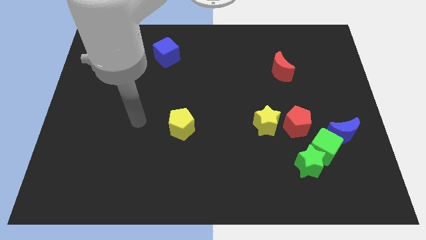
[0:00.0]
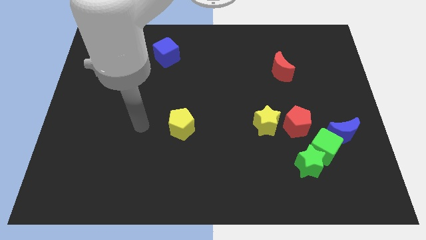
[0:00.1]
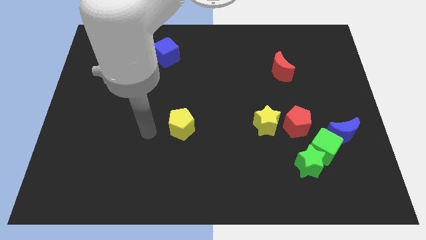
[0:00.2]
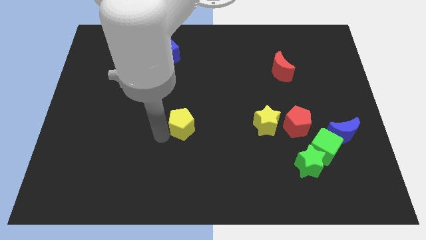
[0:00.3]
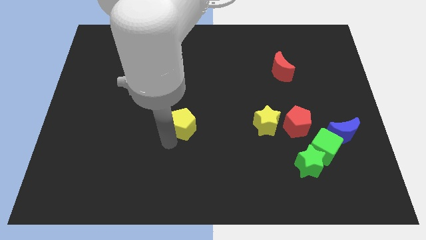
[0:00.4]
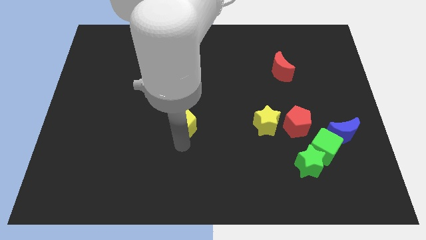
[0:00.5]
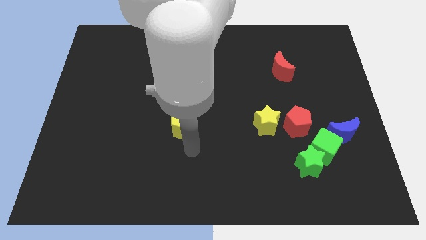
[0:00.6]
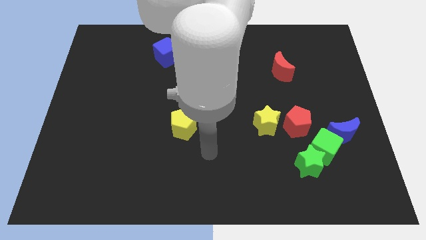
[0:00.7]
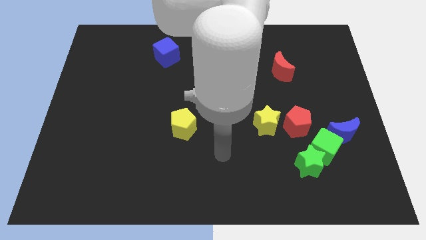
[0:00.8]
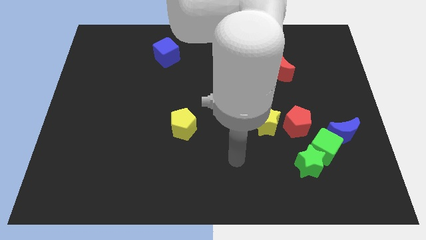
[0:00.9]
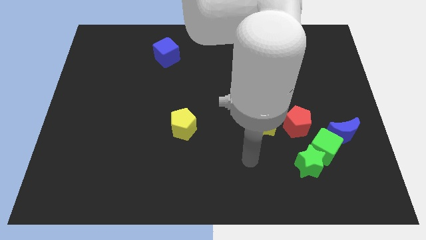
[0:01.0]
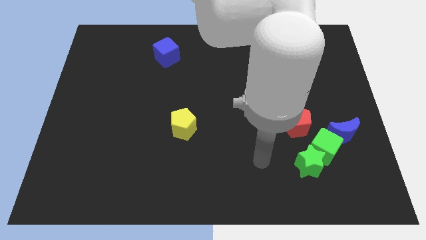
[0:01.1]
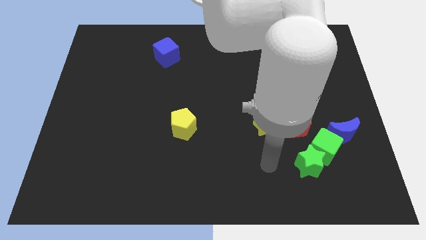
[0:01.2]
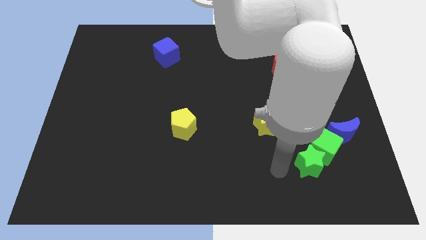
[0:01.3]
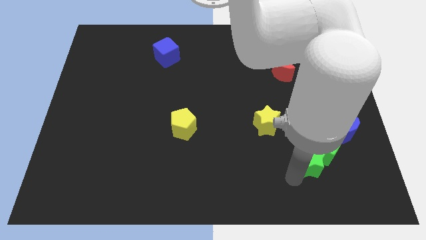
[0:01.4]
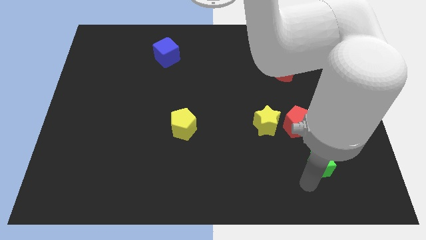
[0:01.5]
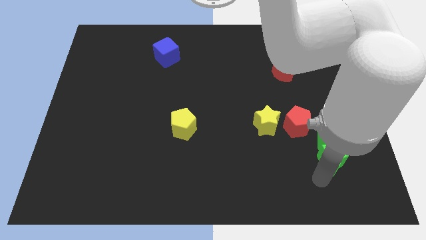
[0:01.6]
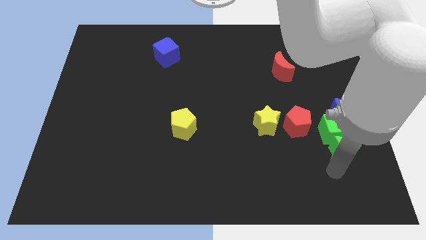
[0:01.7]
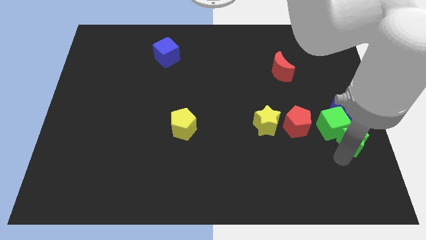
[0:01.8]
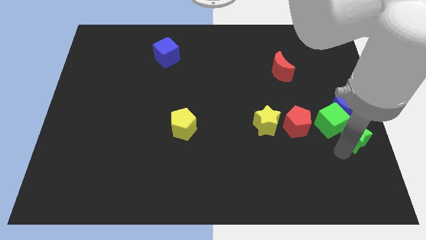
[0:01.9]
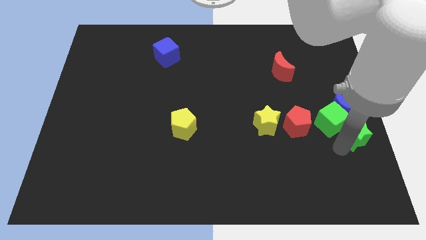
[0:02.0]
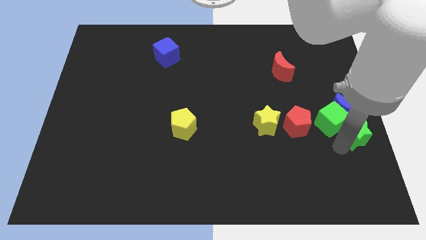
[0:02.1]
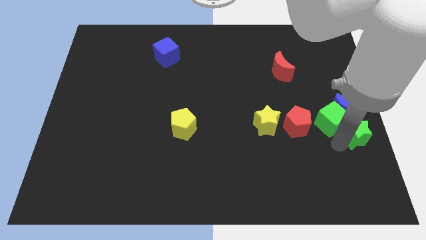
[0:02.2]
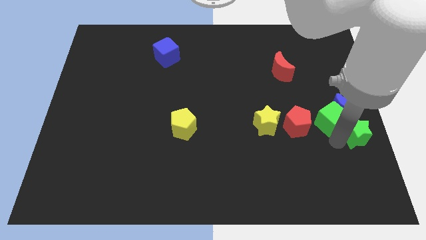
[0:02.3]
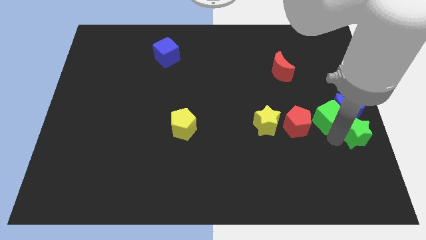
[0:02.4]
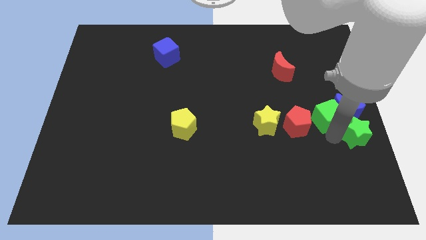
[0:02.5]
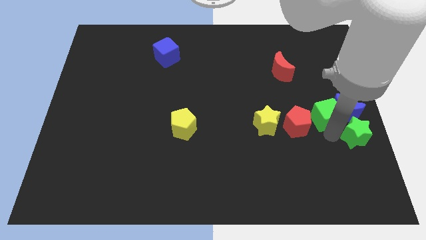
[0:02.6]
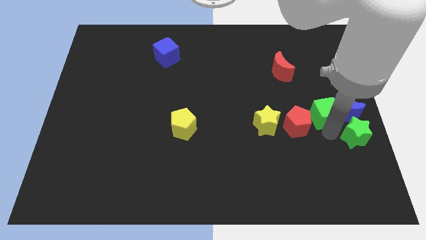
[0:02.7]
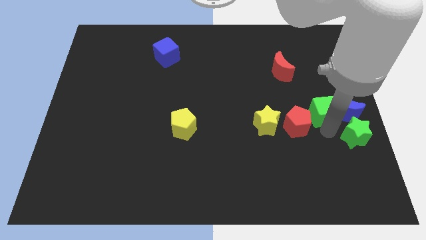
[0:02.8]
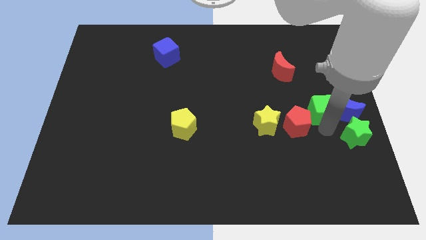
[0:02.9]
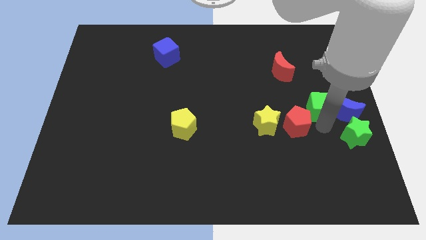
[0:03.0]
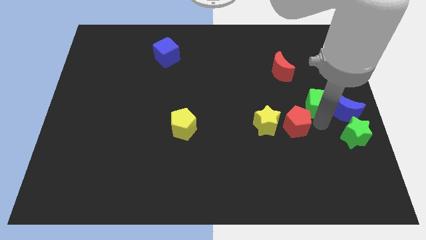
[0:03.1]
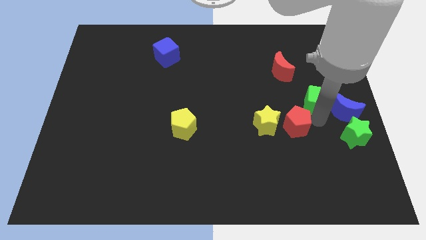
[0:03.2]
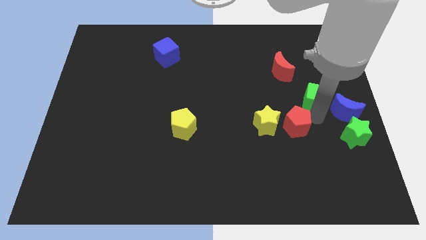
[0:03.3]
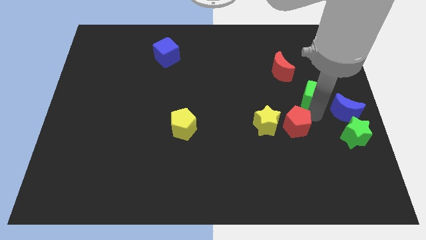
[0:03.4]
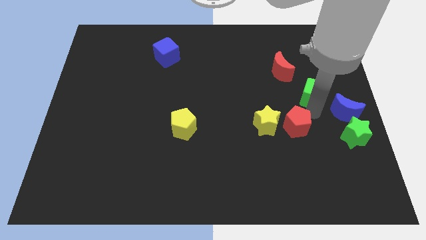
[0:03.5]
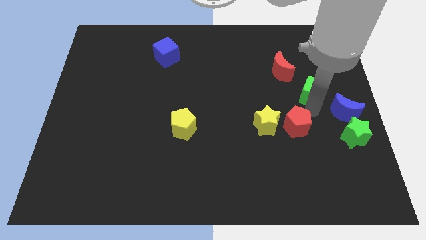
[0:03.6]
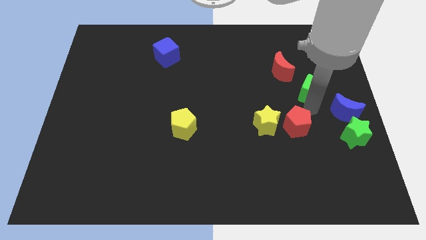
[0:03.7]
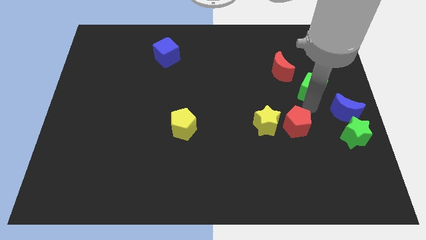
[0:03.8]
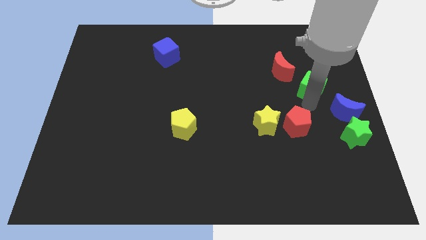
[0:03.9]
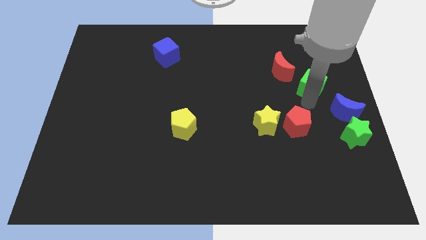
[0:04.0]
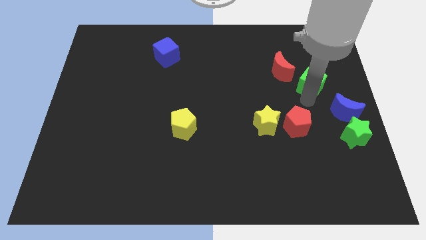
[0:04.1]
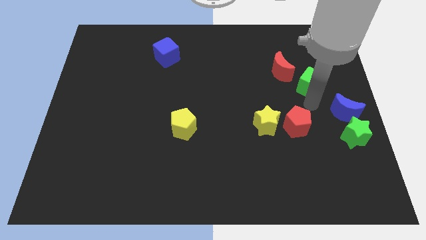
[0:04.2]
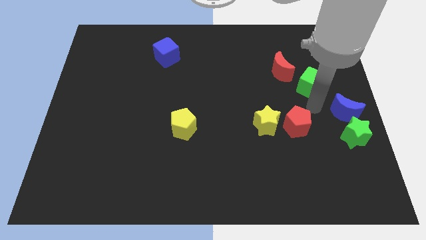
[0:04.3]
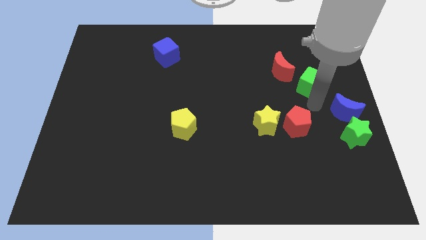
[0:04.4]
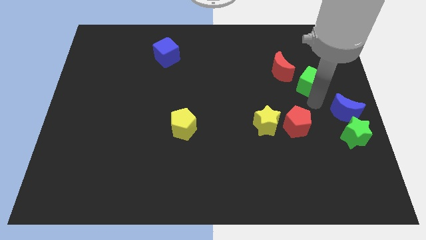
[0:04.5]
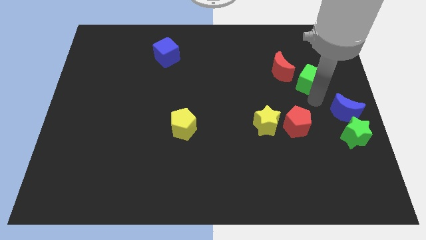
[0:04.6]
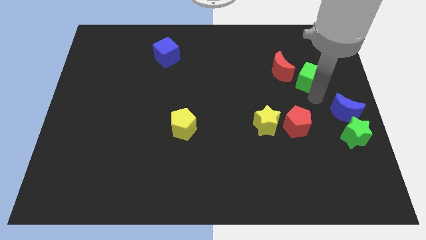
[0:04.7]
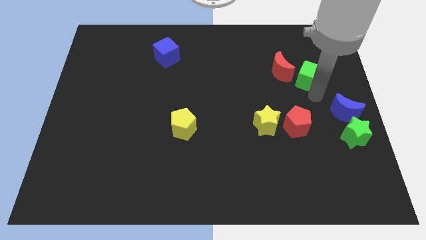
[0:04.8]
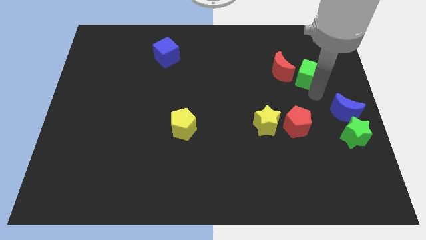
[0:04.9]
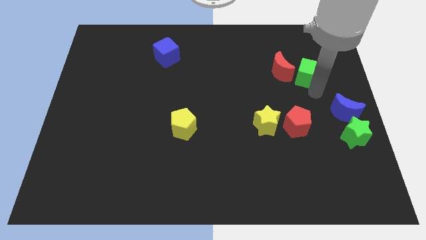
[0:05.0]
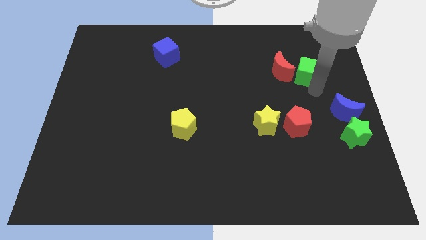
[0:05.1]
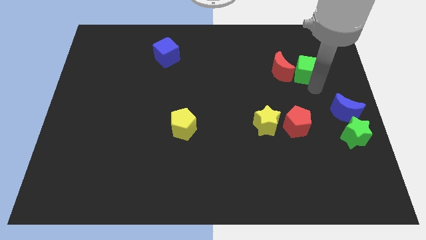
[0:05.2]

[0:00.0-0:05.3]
slide the green cube to the top right side of the red moon

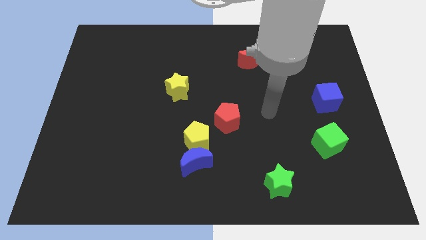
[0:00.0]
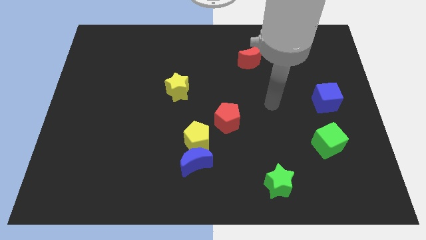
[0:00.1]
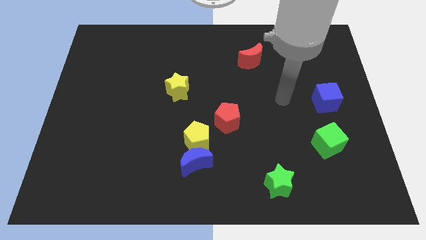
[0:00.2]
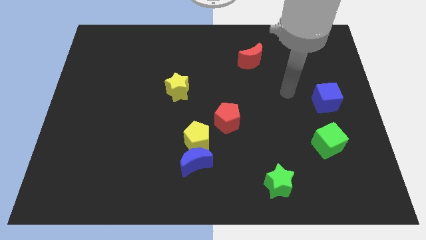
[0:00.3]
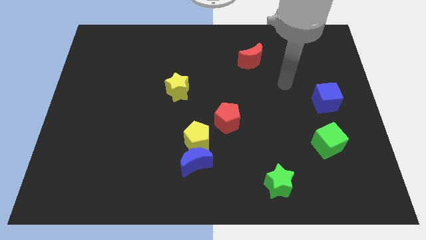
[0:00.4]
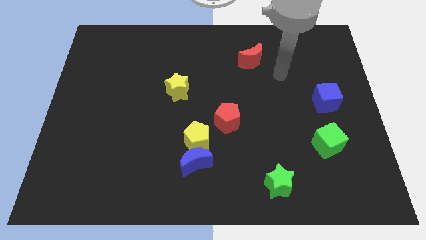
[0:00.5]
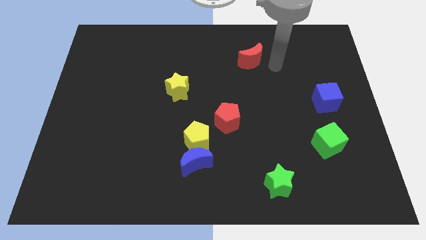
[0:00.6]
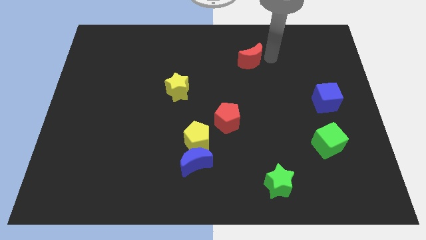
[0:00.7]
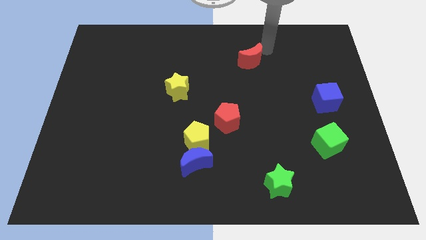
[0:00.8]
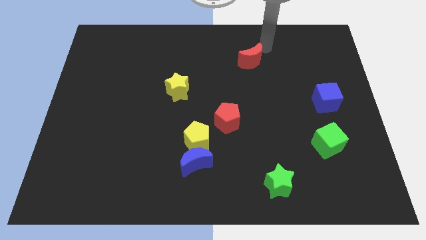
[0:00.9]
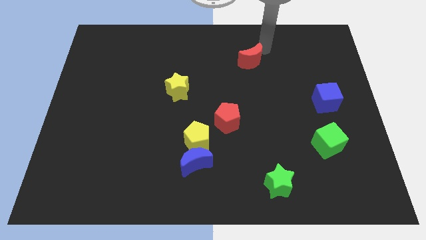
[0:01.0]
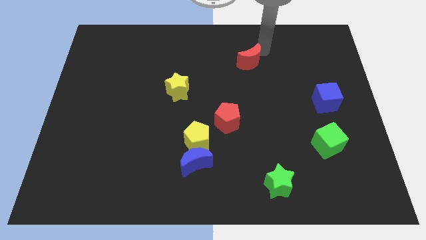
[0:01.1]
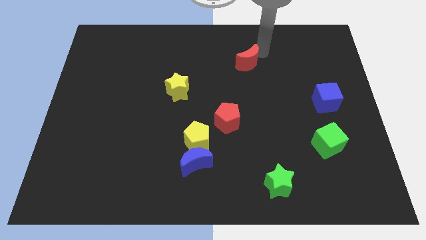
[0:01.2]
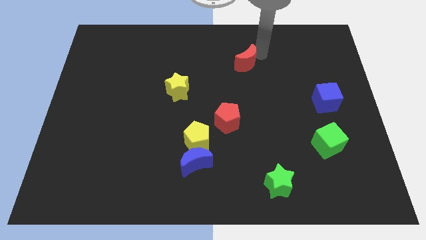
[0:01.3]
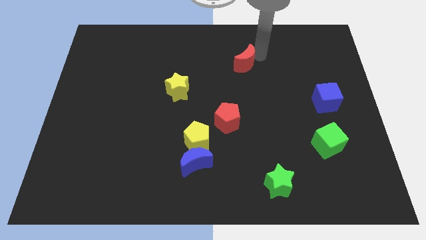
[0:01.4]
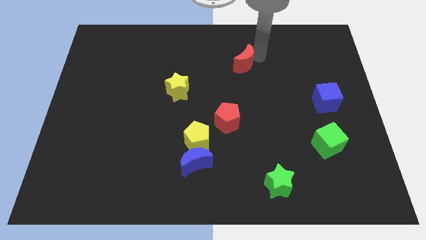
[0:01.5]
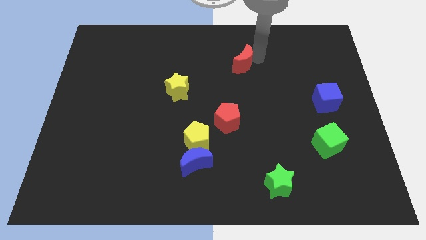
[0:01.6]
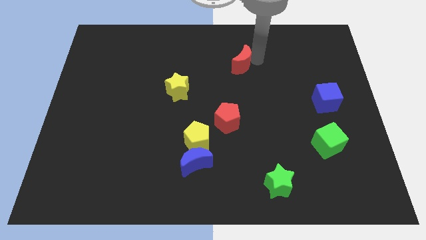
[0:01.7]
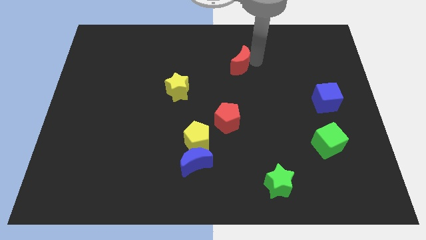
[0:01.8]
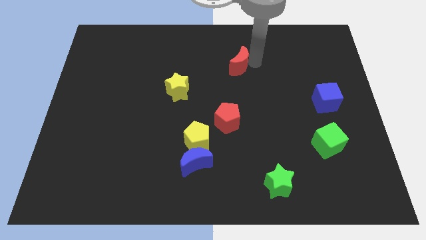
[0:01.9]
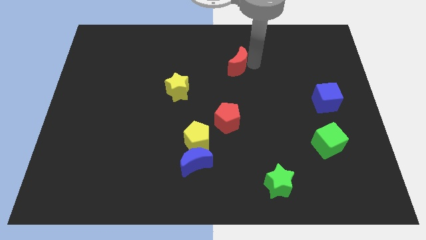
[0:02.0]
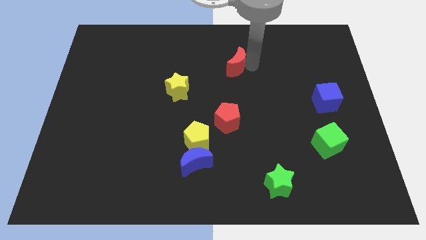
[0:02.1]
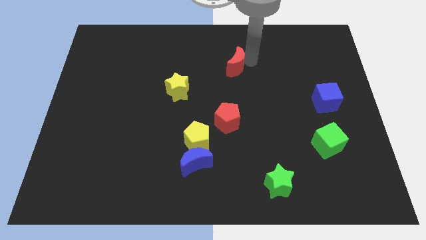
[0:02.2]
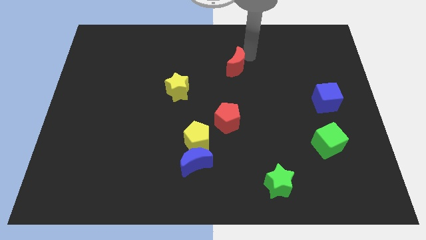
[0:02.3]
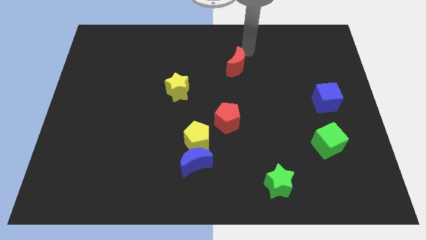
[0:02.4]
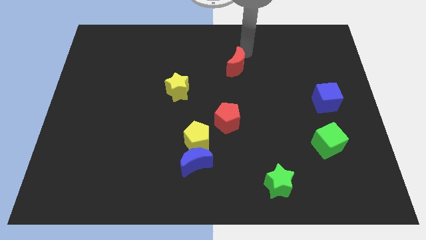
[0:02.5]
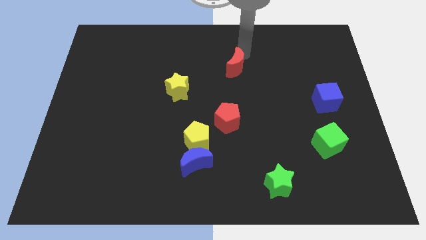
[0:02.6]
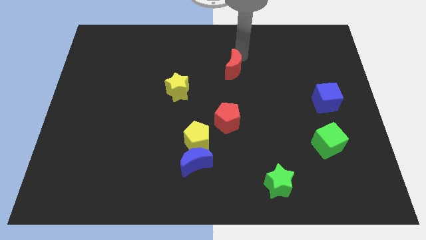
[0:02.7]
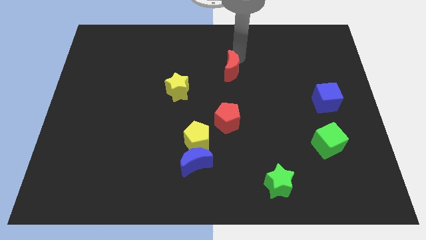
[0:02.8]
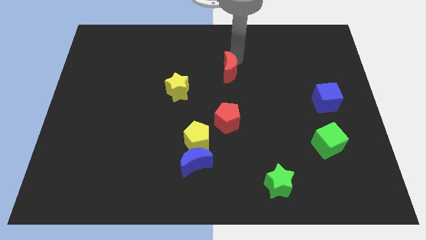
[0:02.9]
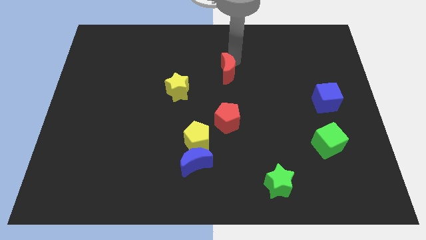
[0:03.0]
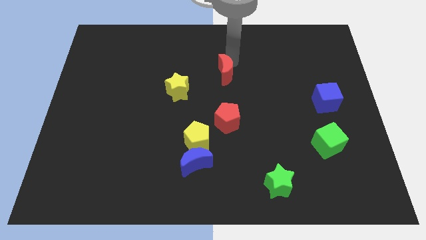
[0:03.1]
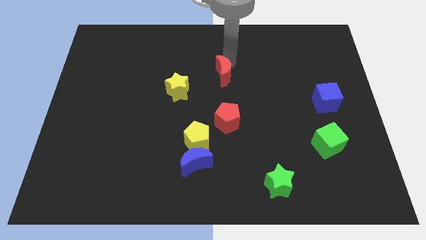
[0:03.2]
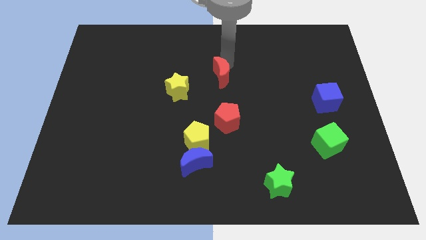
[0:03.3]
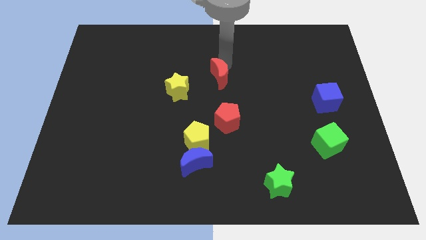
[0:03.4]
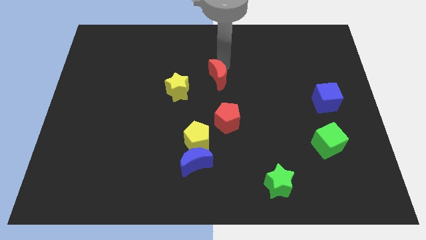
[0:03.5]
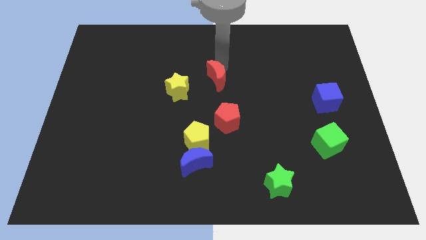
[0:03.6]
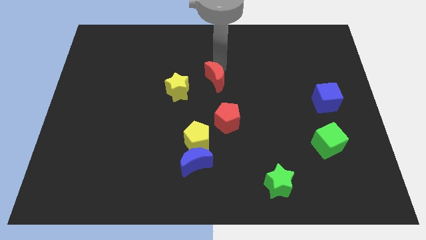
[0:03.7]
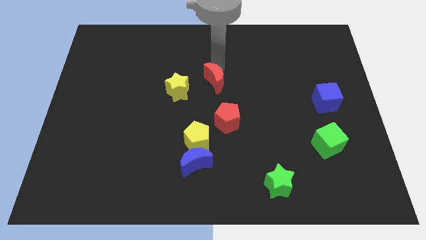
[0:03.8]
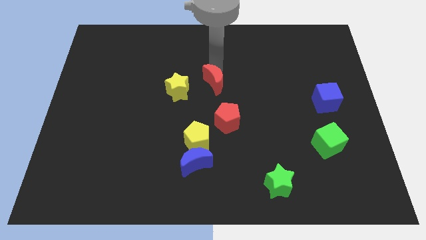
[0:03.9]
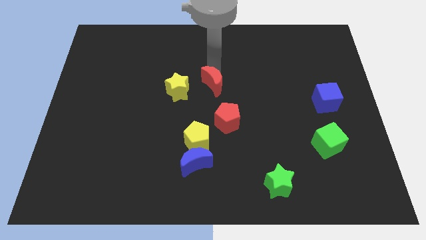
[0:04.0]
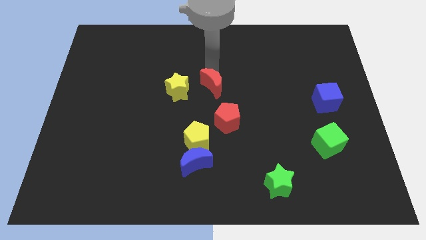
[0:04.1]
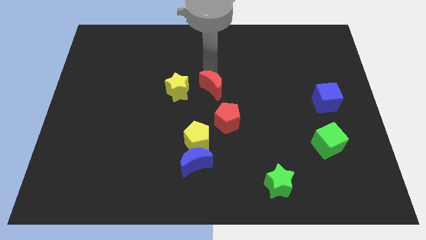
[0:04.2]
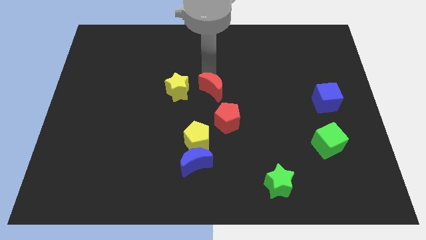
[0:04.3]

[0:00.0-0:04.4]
put the red moon diagonally up and to the left of the red pentagon
